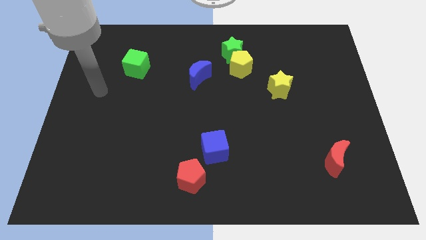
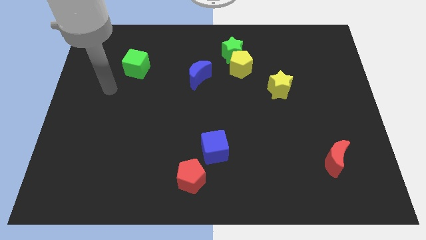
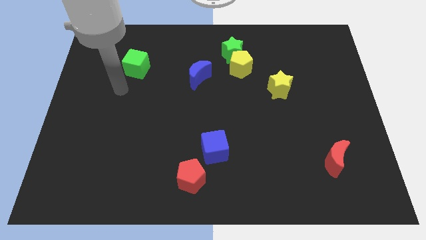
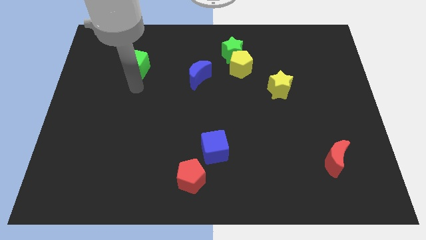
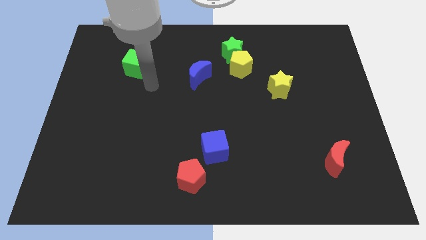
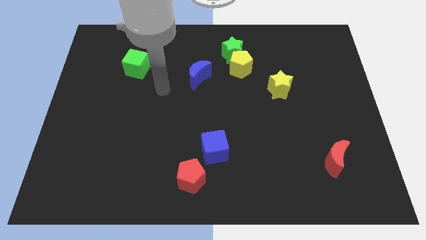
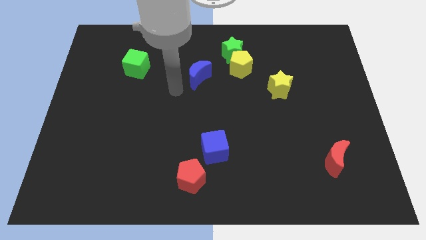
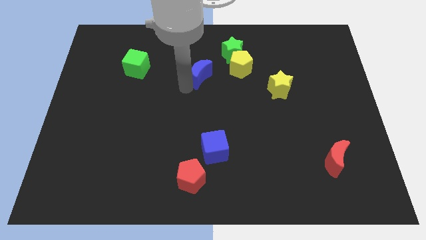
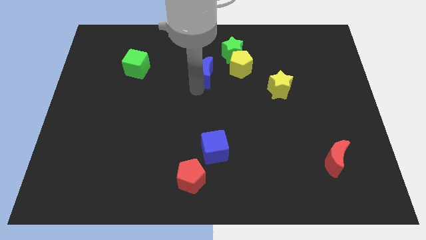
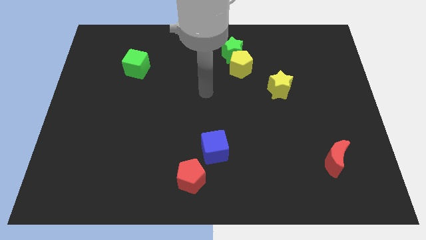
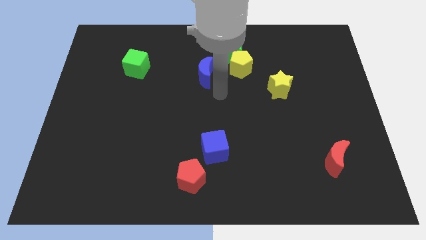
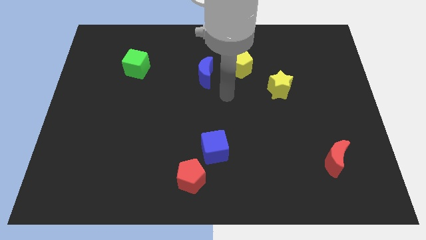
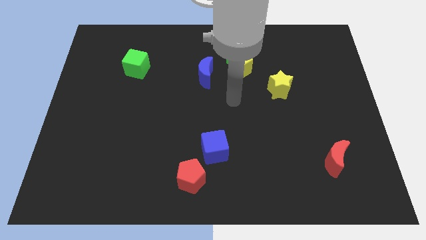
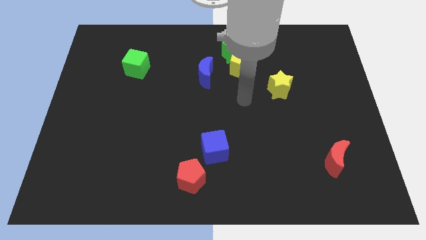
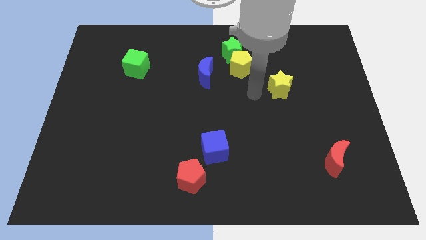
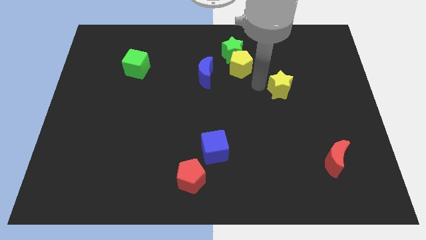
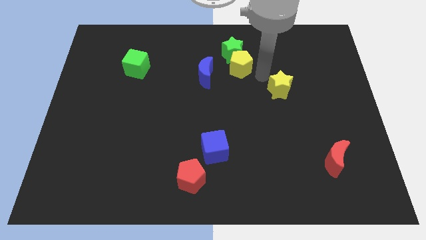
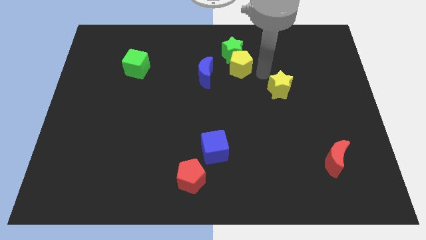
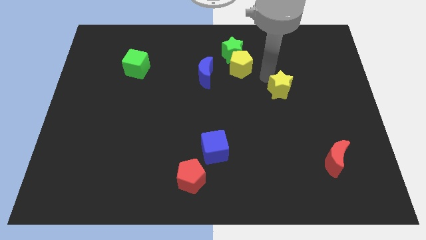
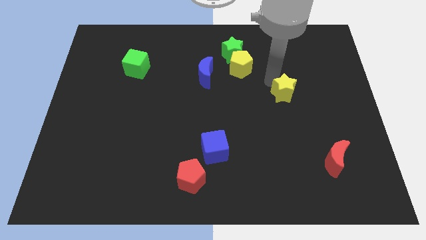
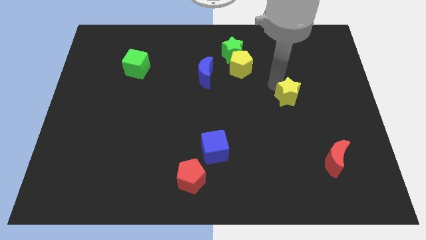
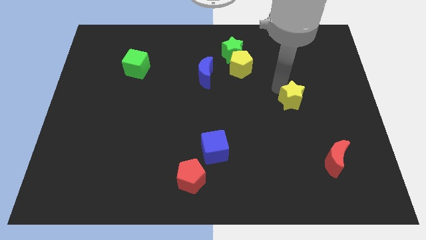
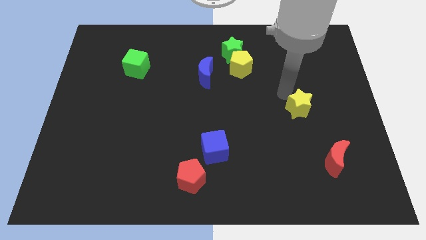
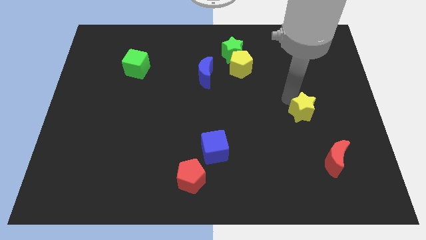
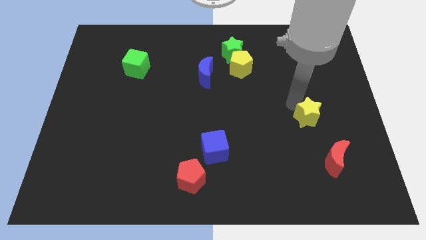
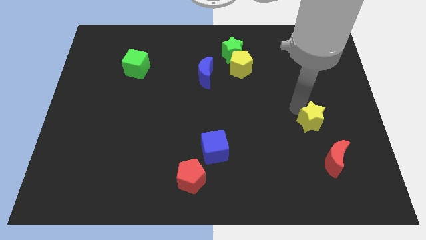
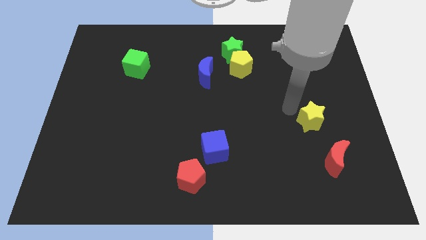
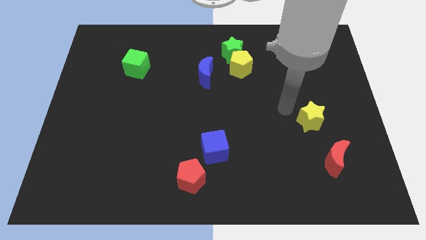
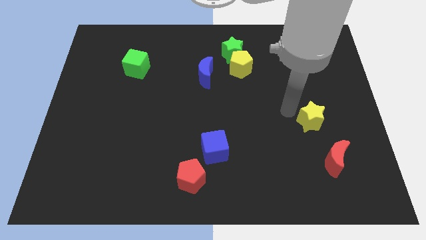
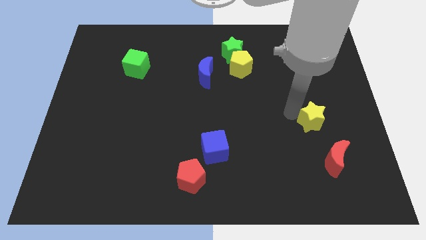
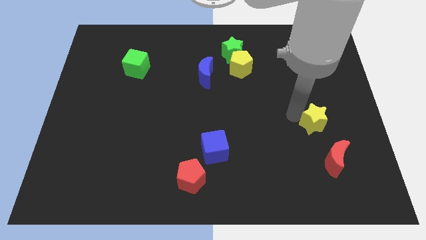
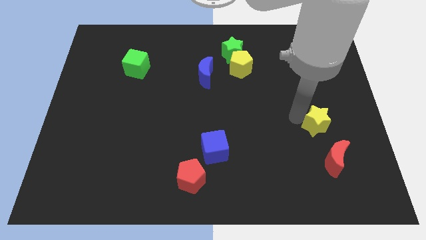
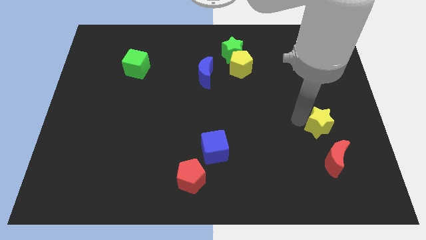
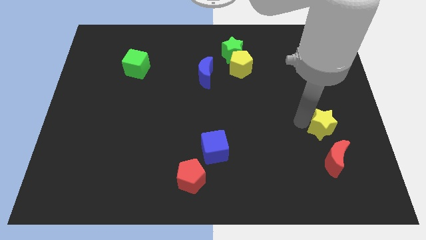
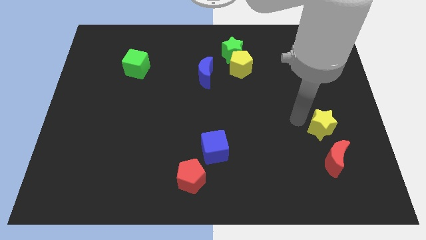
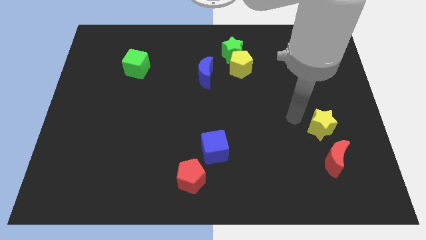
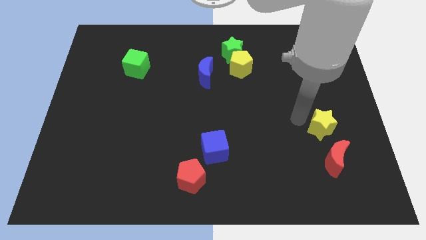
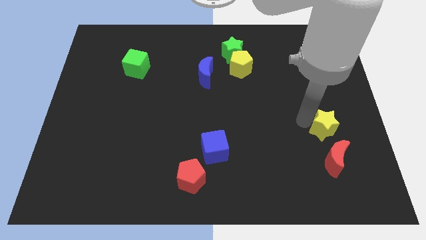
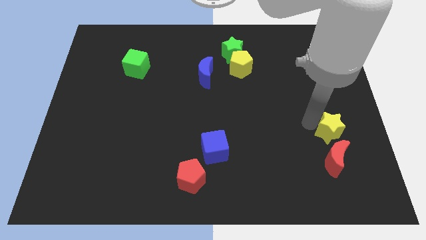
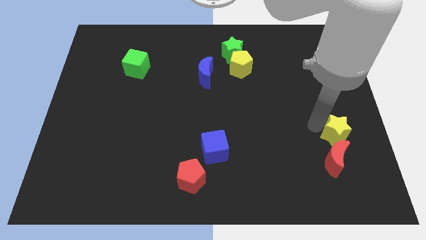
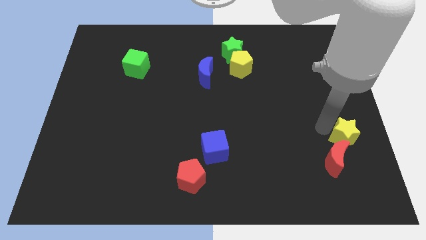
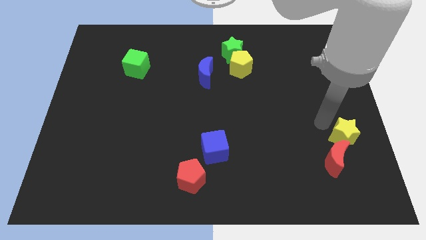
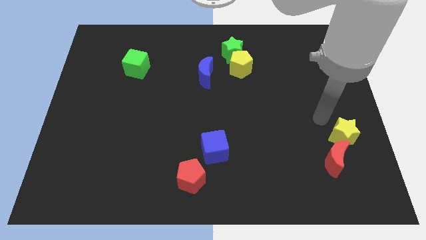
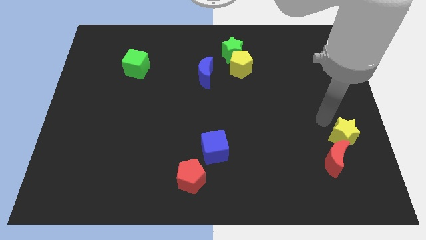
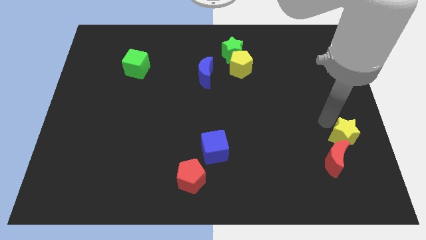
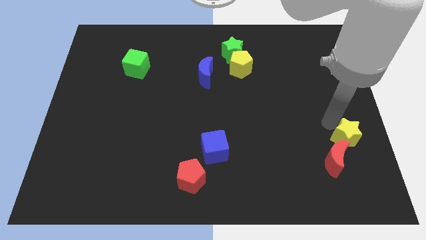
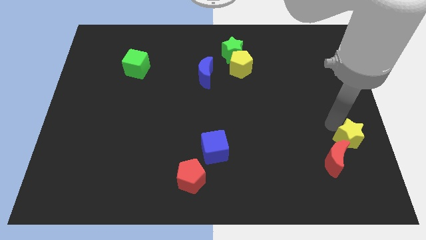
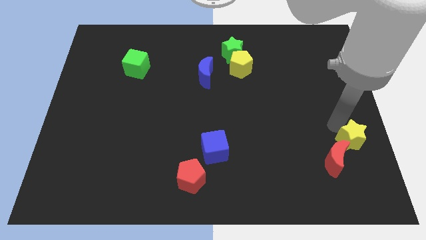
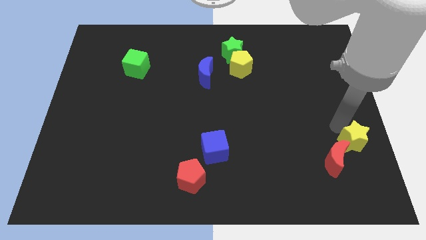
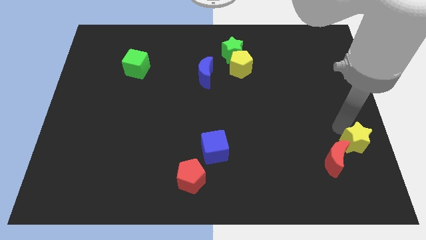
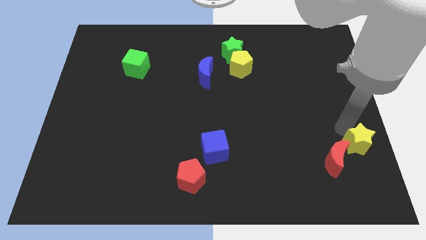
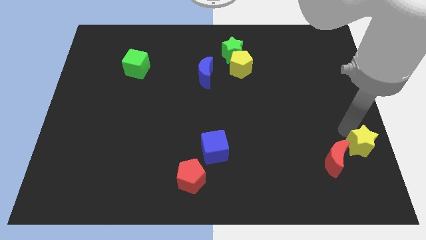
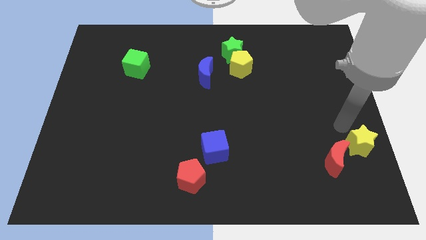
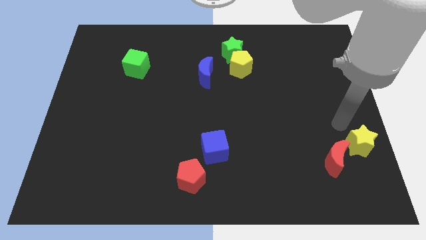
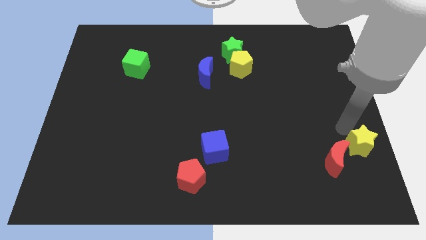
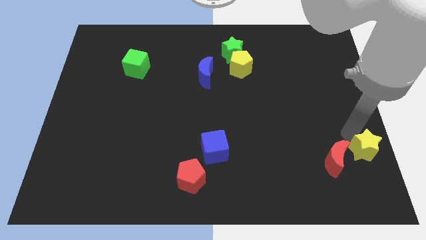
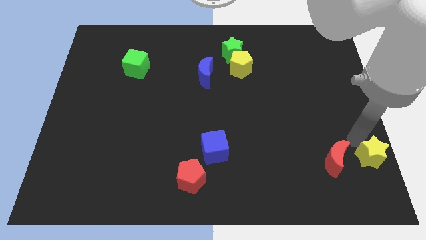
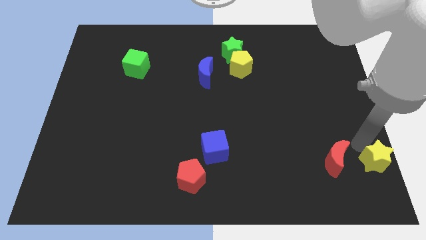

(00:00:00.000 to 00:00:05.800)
slide the yellow star to the bottom right of the board
